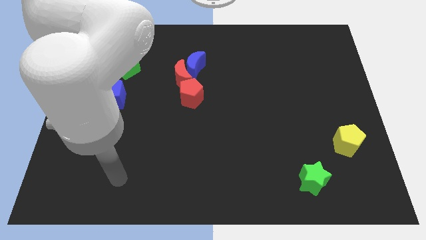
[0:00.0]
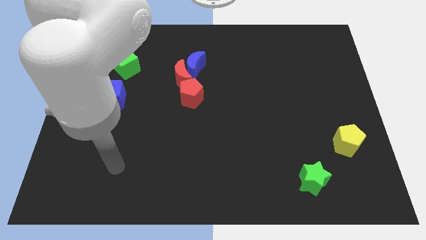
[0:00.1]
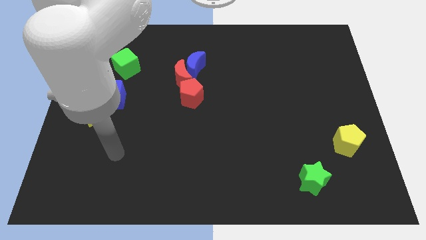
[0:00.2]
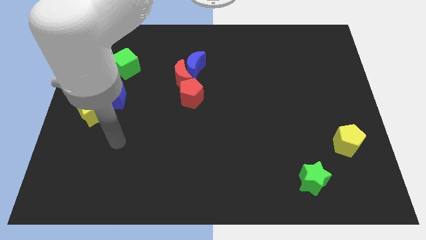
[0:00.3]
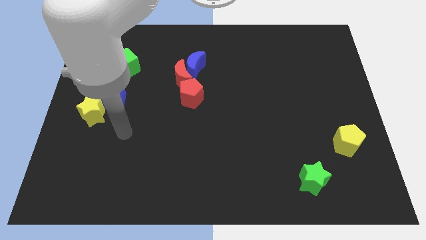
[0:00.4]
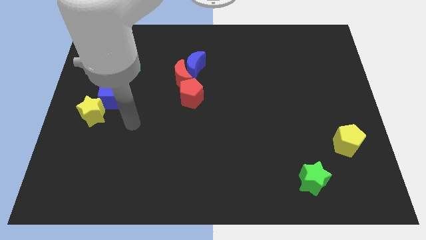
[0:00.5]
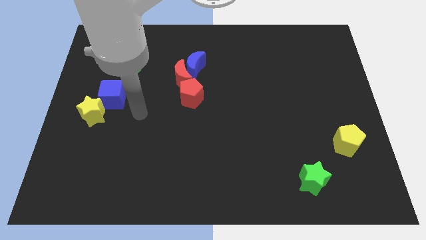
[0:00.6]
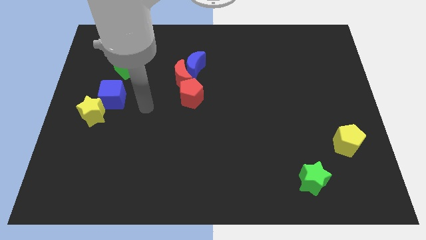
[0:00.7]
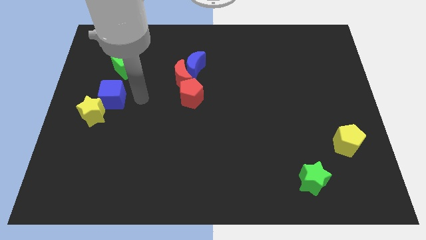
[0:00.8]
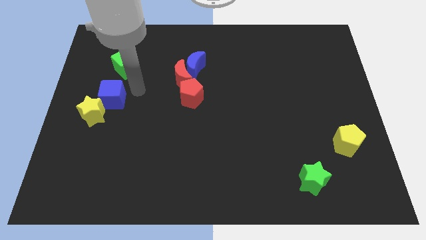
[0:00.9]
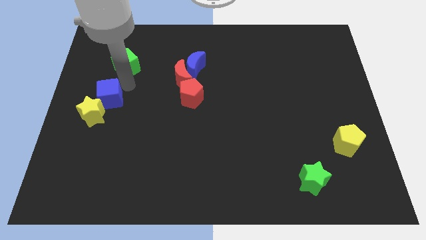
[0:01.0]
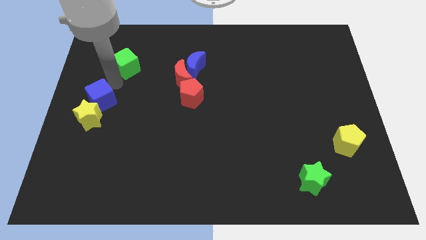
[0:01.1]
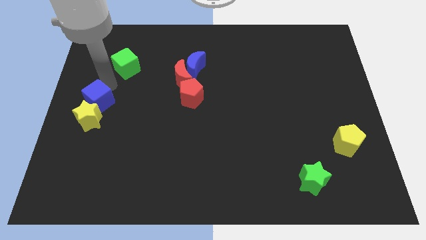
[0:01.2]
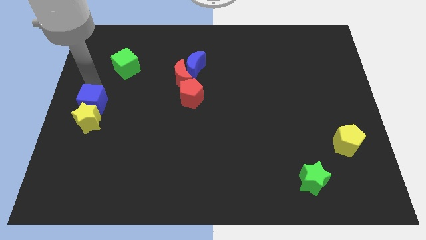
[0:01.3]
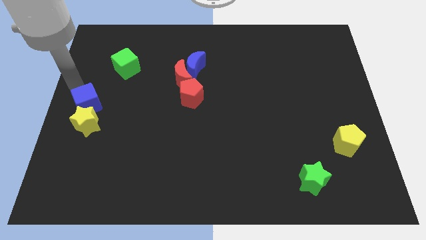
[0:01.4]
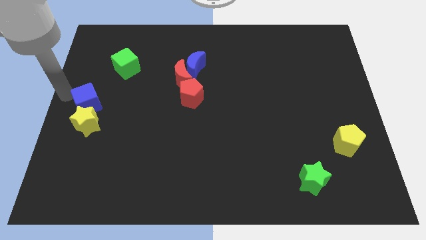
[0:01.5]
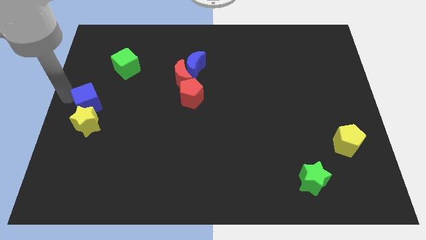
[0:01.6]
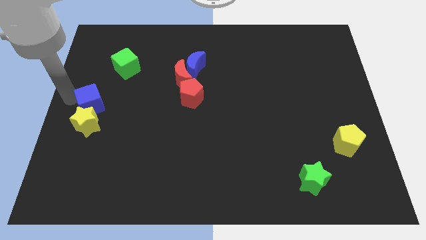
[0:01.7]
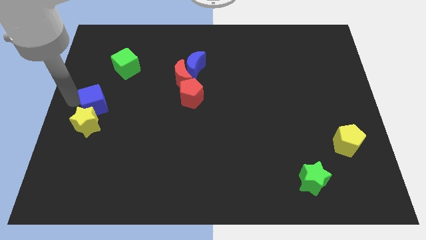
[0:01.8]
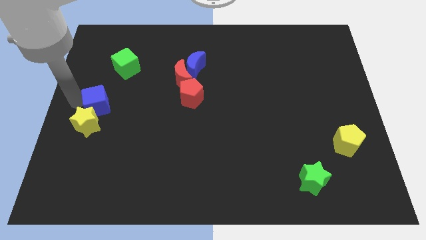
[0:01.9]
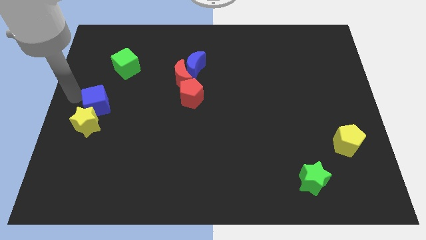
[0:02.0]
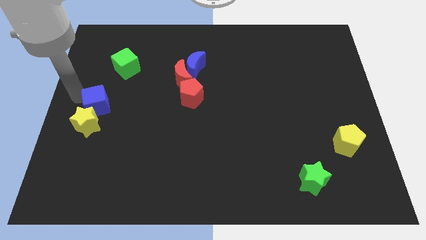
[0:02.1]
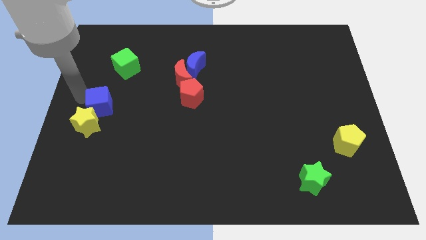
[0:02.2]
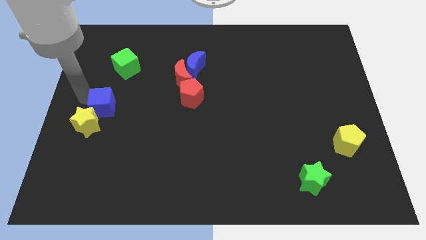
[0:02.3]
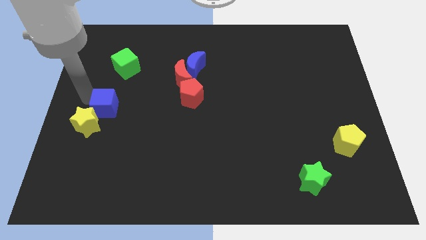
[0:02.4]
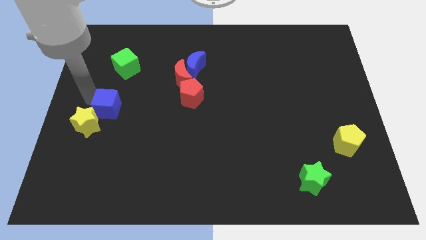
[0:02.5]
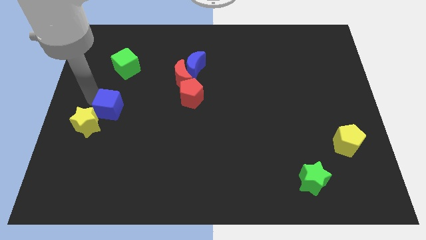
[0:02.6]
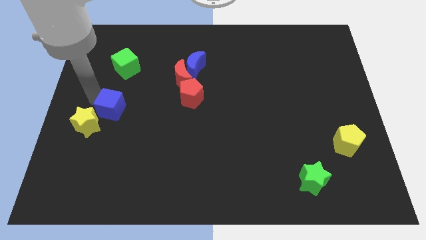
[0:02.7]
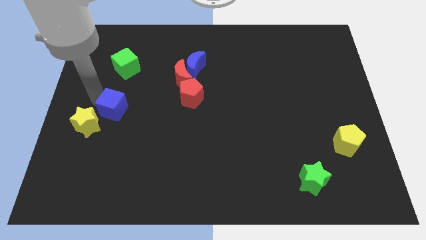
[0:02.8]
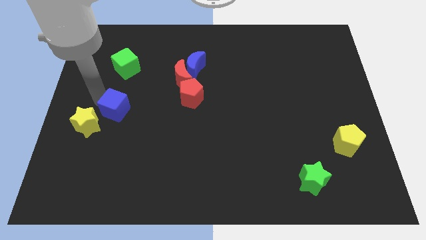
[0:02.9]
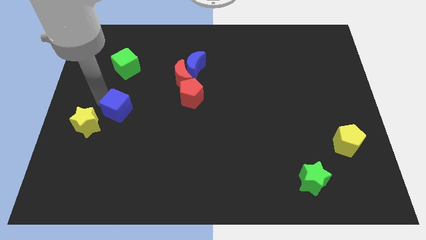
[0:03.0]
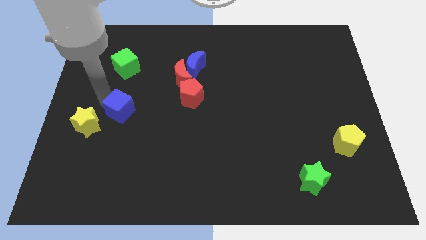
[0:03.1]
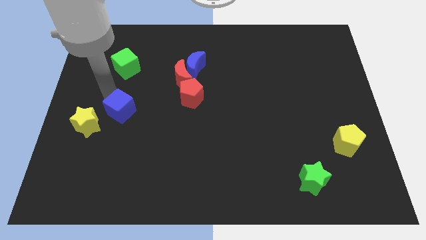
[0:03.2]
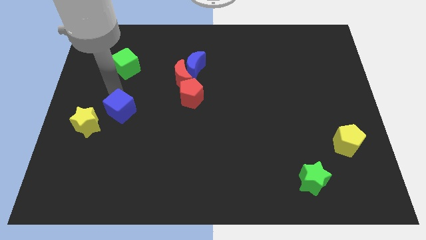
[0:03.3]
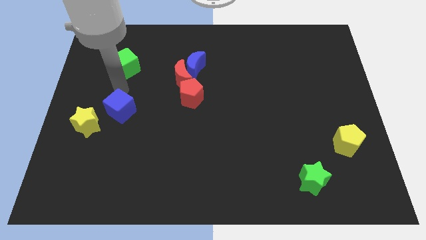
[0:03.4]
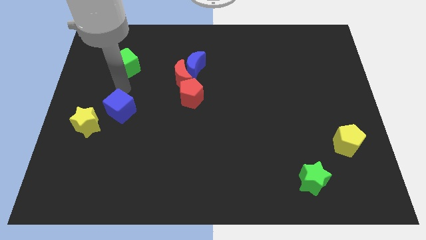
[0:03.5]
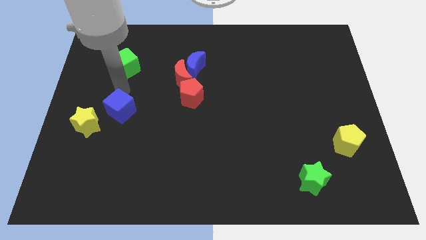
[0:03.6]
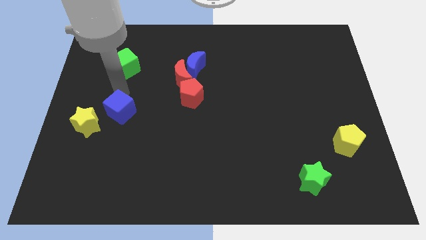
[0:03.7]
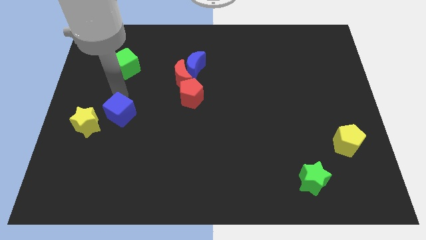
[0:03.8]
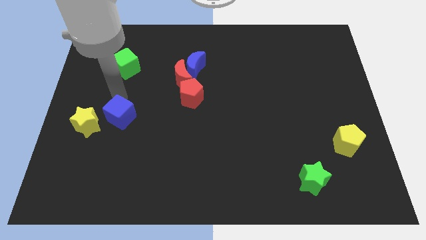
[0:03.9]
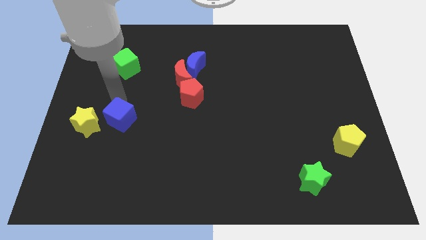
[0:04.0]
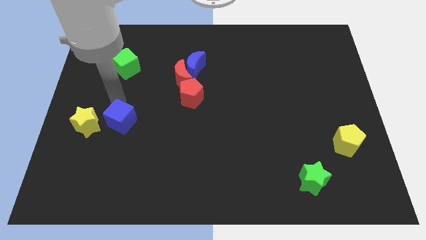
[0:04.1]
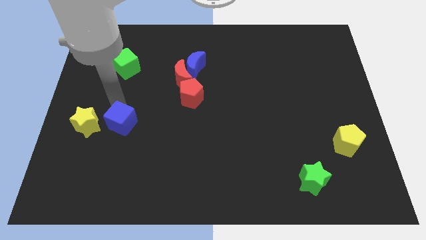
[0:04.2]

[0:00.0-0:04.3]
push the blue cube down somewhat

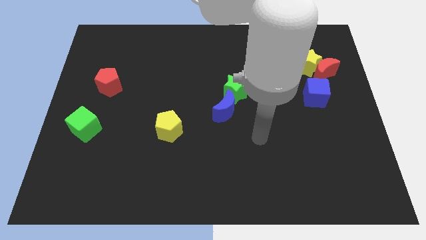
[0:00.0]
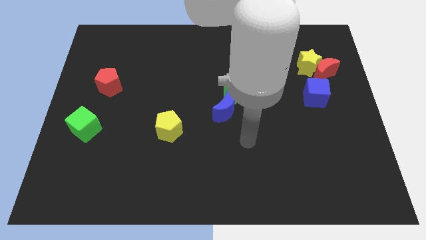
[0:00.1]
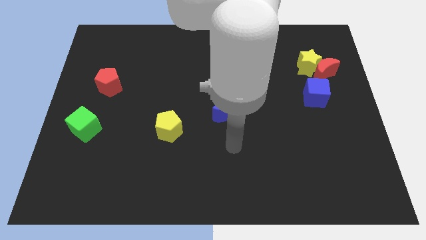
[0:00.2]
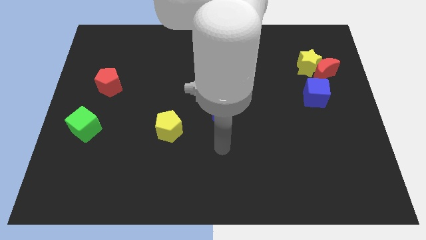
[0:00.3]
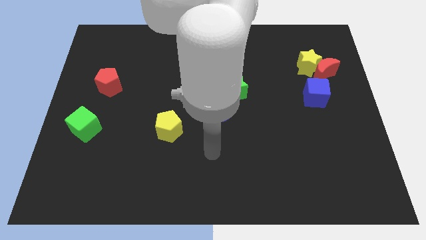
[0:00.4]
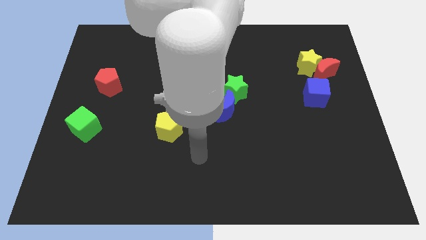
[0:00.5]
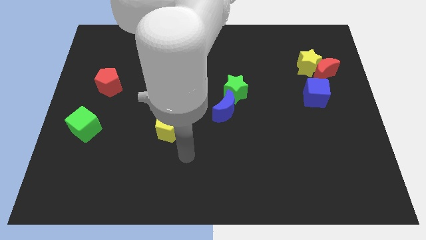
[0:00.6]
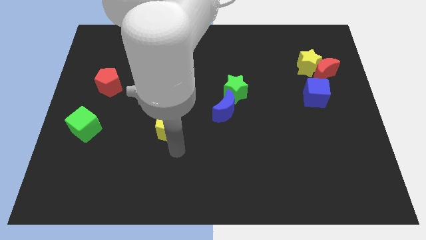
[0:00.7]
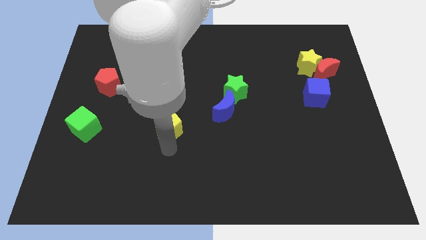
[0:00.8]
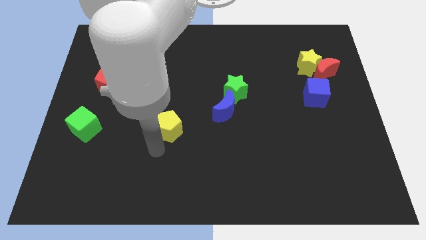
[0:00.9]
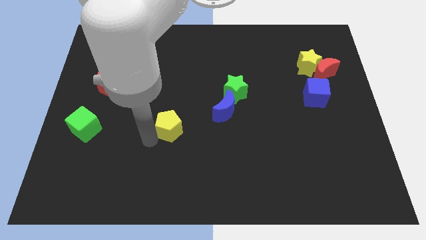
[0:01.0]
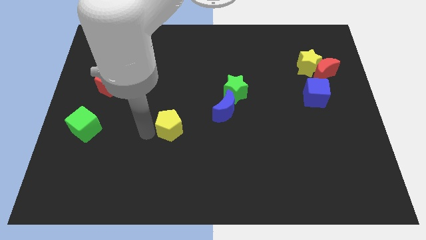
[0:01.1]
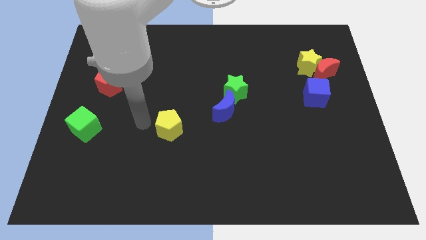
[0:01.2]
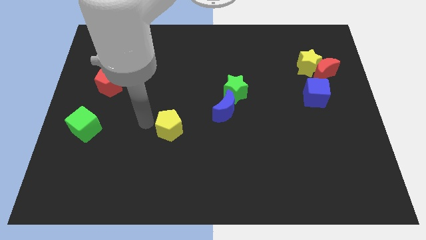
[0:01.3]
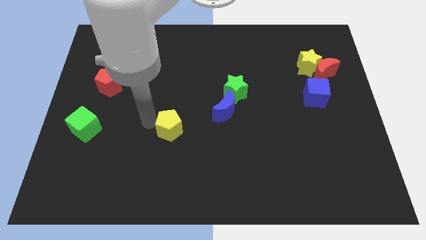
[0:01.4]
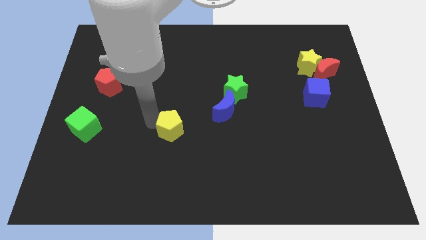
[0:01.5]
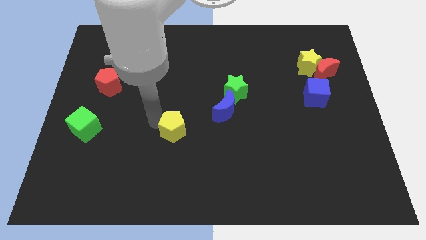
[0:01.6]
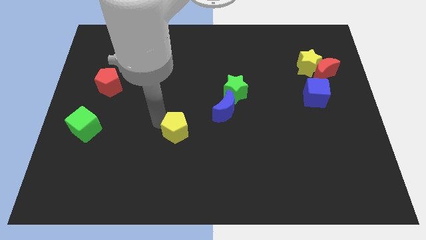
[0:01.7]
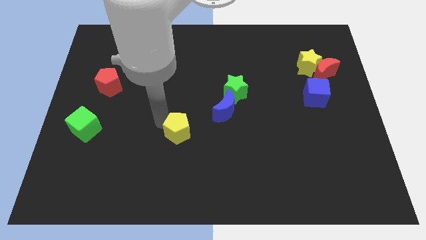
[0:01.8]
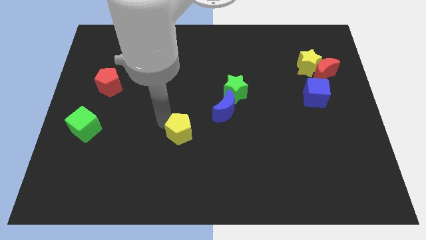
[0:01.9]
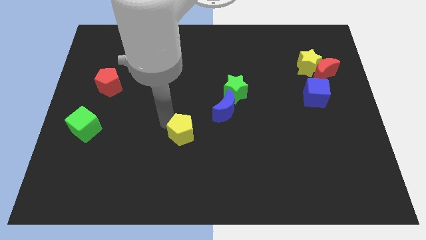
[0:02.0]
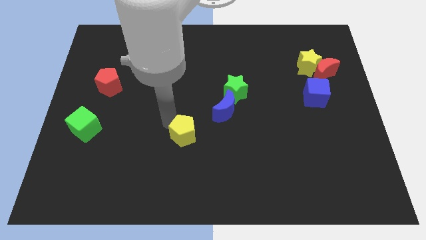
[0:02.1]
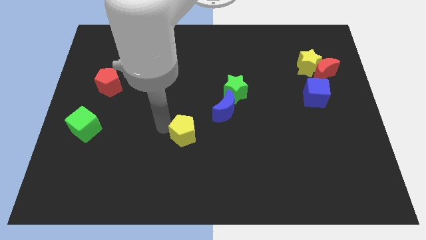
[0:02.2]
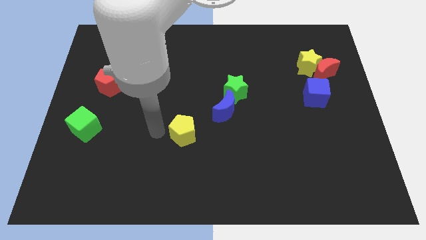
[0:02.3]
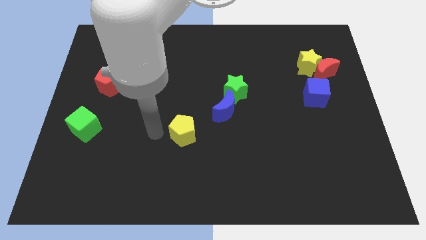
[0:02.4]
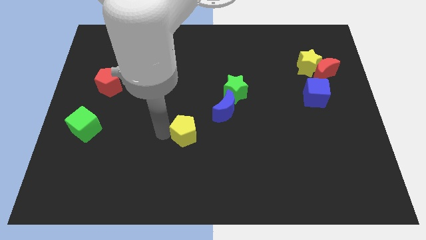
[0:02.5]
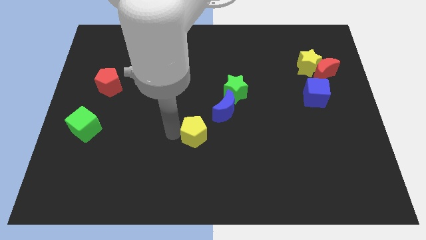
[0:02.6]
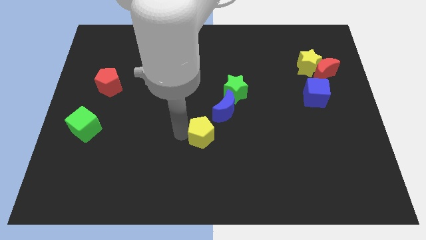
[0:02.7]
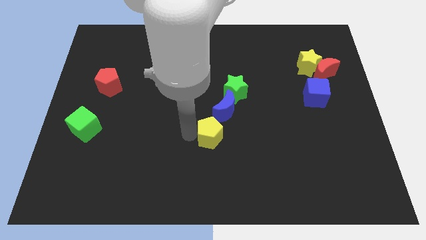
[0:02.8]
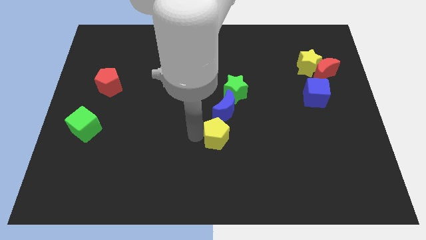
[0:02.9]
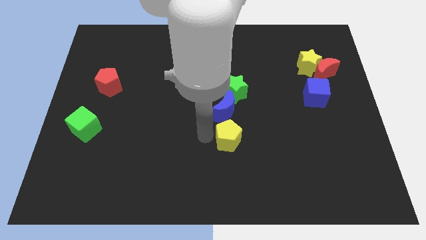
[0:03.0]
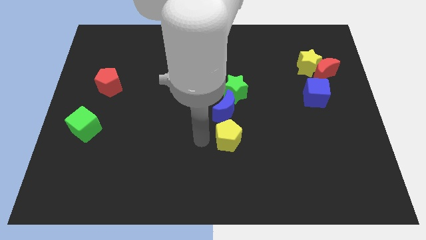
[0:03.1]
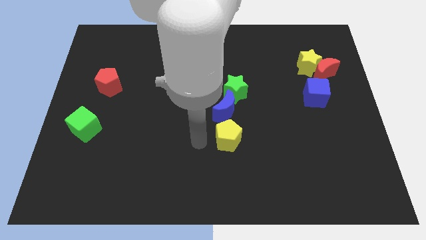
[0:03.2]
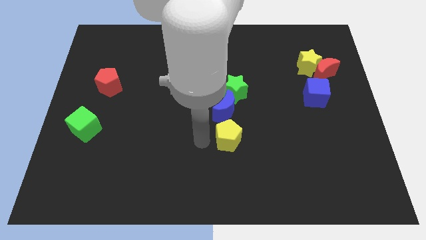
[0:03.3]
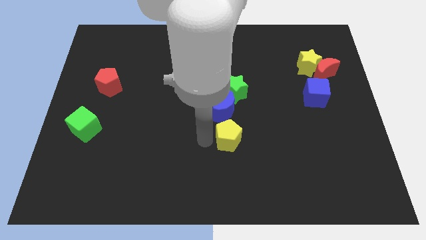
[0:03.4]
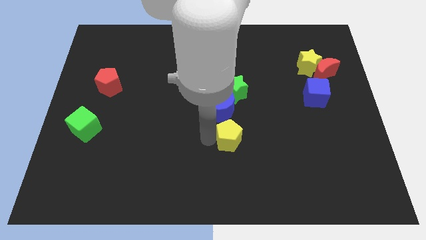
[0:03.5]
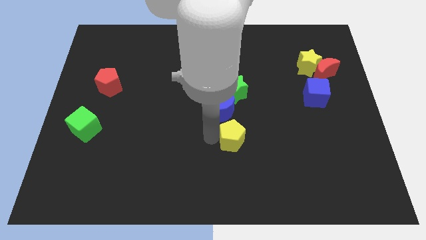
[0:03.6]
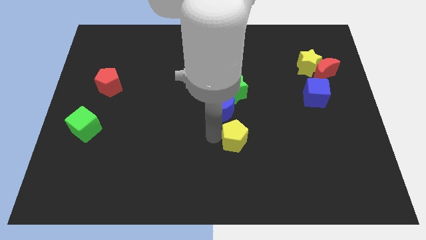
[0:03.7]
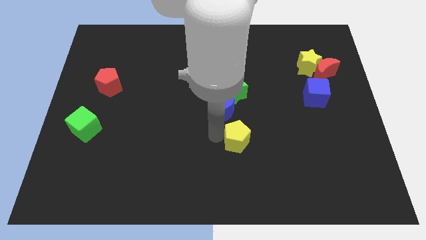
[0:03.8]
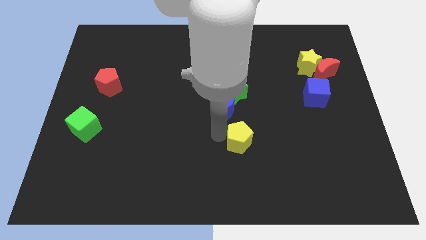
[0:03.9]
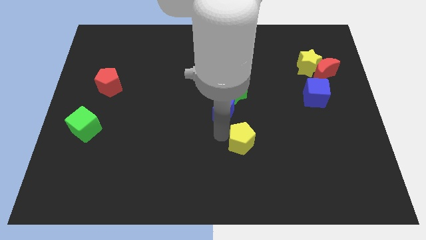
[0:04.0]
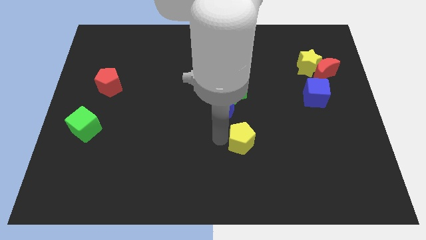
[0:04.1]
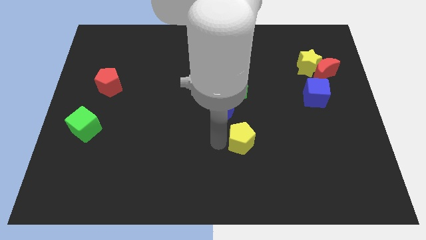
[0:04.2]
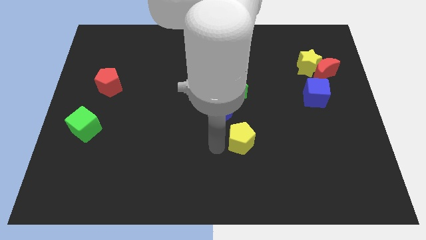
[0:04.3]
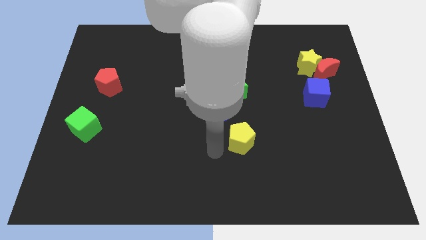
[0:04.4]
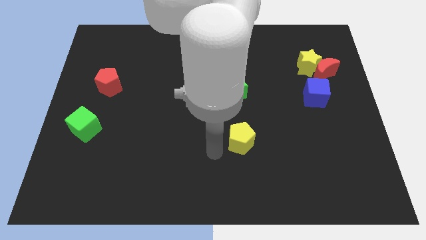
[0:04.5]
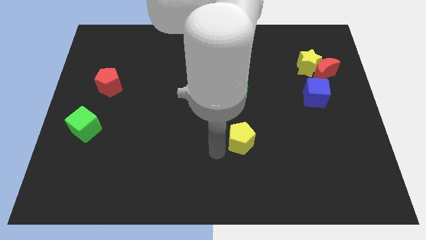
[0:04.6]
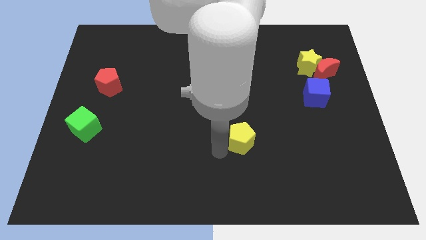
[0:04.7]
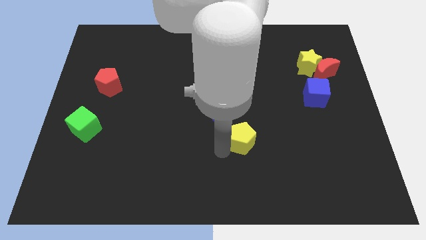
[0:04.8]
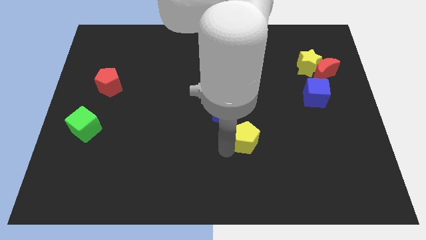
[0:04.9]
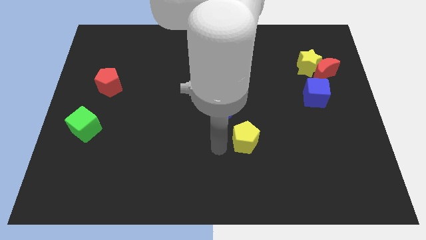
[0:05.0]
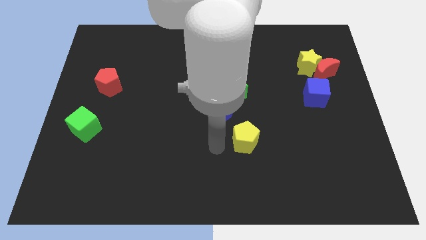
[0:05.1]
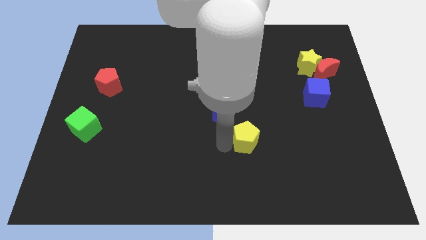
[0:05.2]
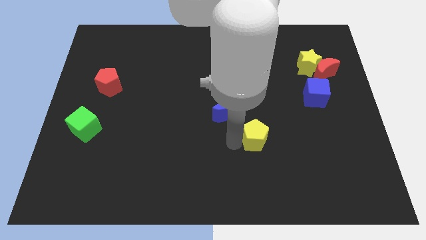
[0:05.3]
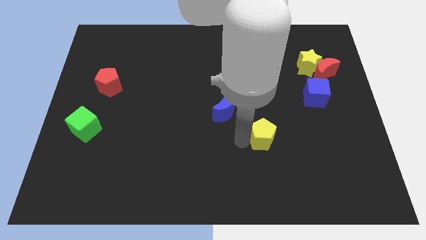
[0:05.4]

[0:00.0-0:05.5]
slide the yellow pentagon to the right
